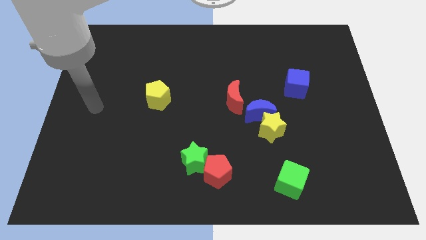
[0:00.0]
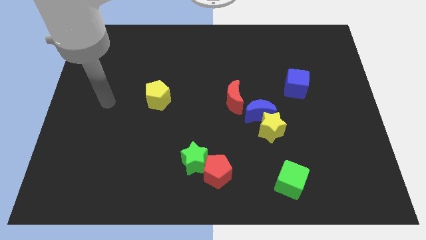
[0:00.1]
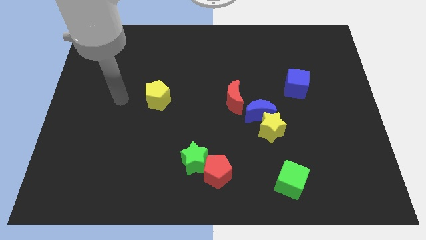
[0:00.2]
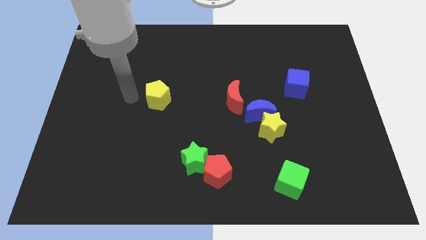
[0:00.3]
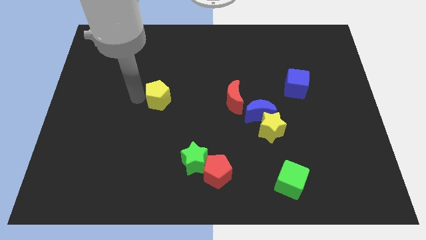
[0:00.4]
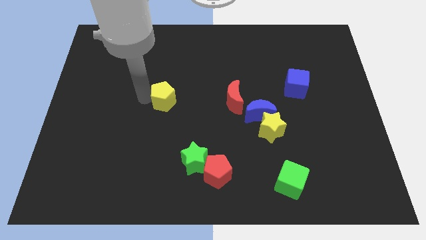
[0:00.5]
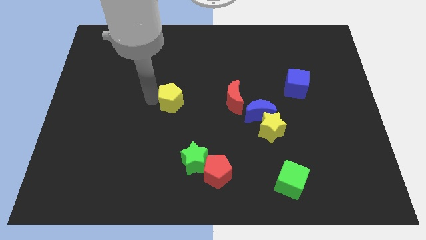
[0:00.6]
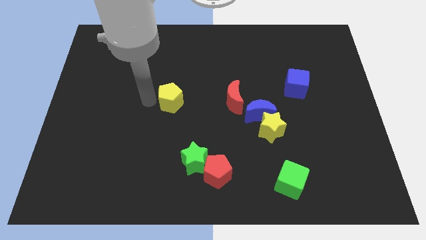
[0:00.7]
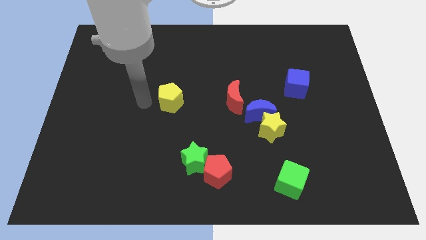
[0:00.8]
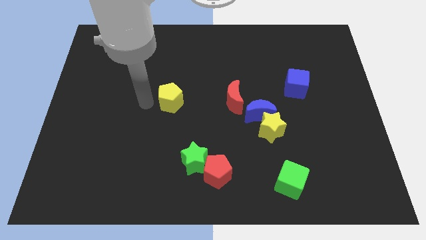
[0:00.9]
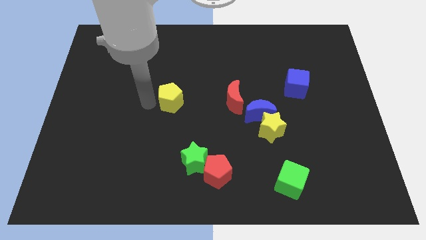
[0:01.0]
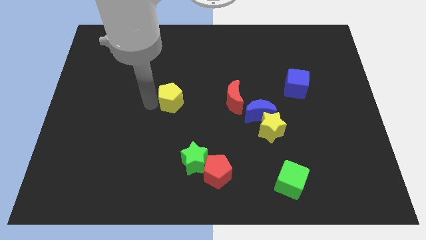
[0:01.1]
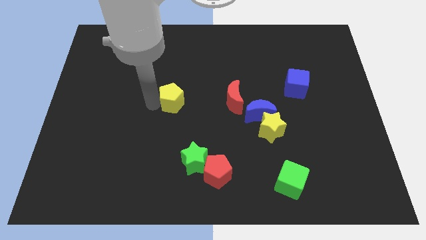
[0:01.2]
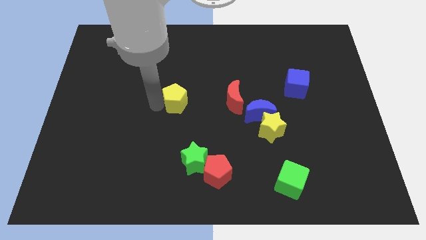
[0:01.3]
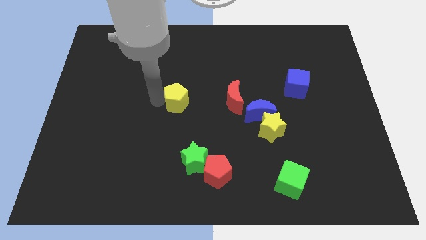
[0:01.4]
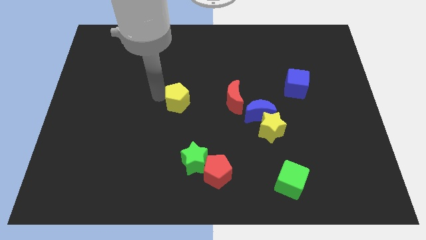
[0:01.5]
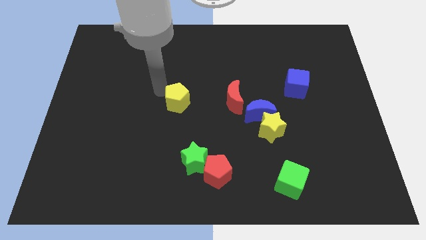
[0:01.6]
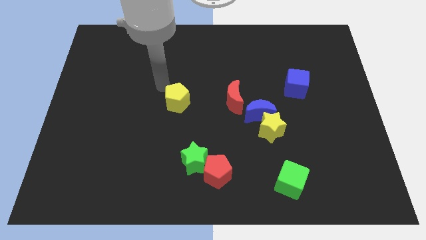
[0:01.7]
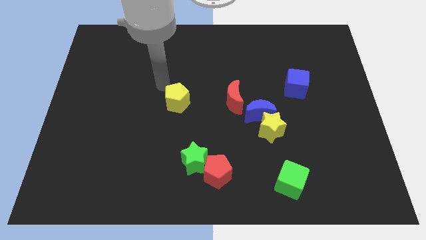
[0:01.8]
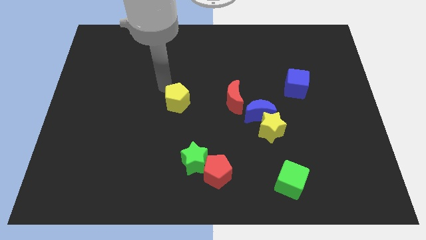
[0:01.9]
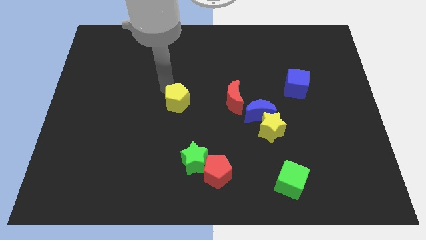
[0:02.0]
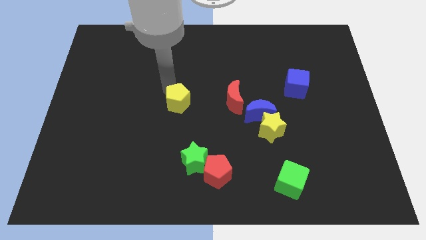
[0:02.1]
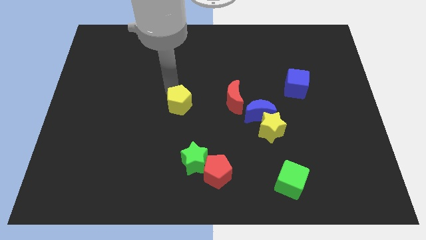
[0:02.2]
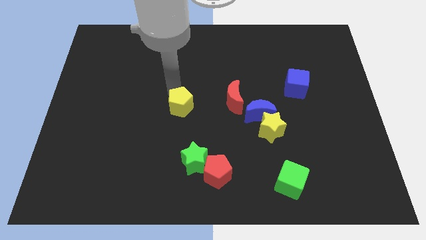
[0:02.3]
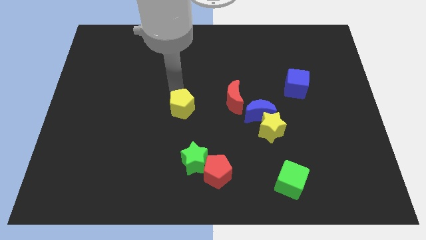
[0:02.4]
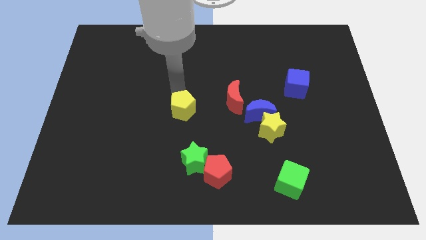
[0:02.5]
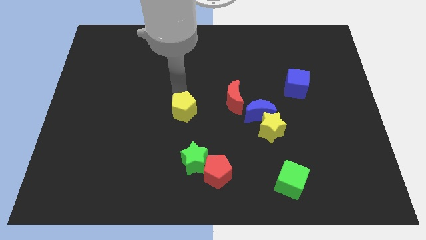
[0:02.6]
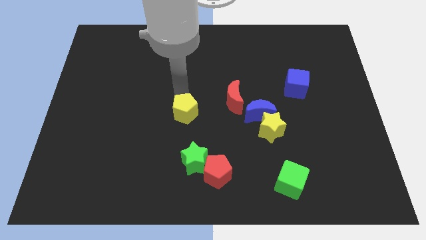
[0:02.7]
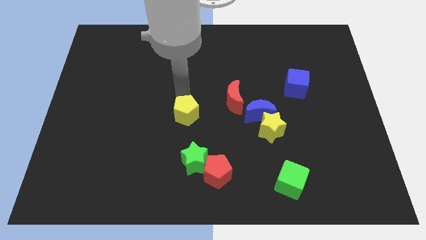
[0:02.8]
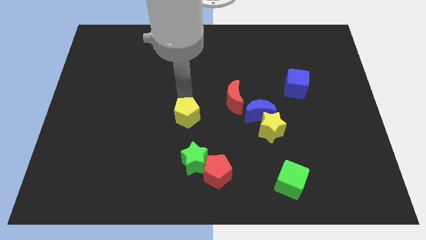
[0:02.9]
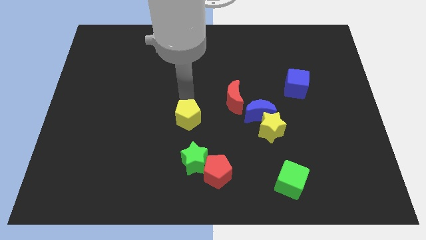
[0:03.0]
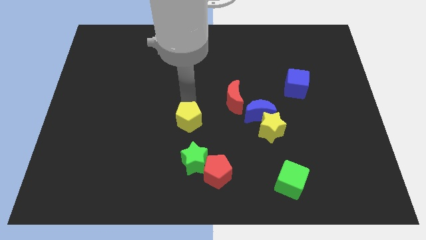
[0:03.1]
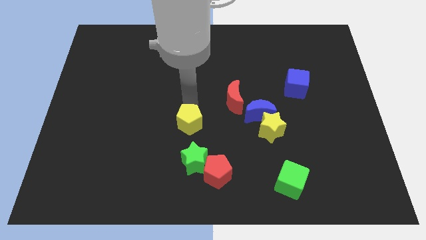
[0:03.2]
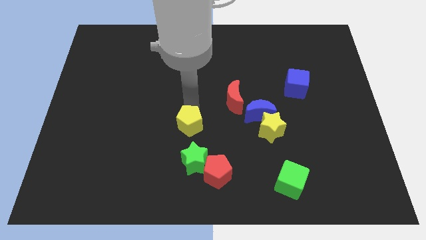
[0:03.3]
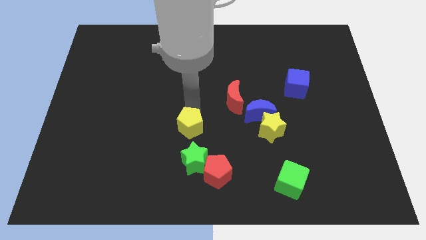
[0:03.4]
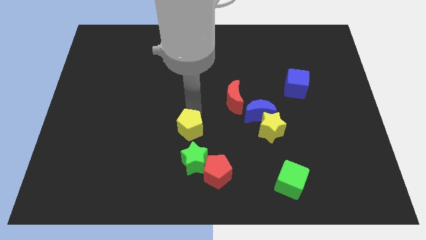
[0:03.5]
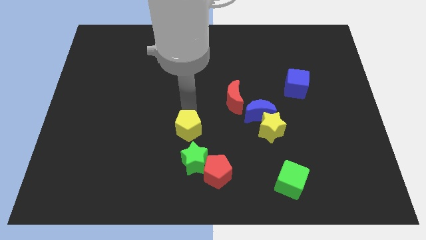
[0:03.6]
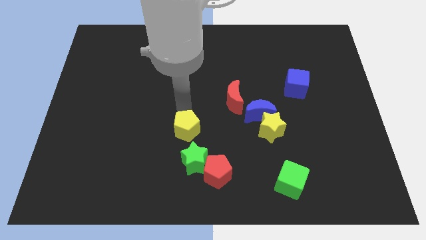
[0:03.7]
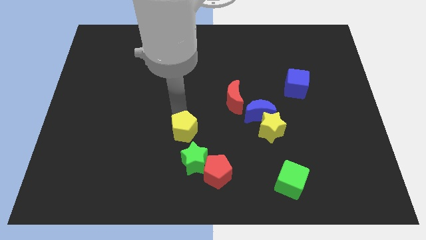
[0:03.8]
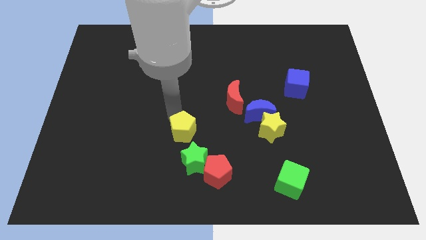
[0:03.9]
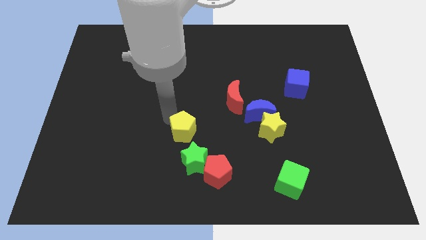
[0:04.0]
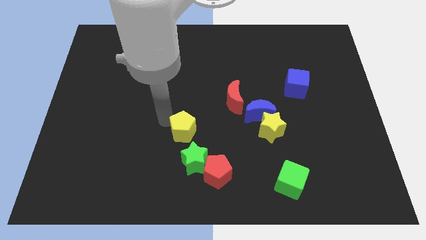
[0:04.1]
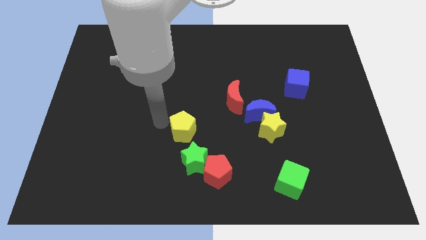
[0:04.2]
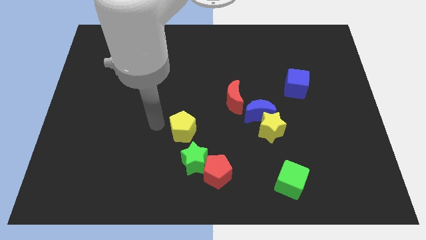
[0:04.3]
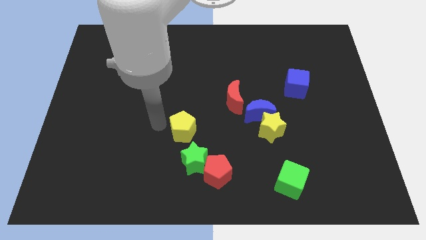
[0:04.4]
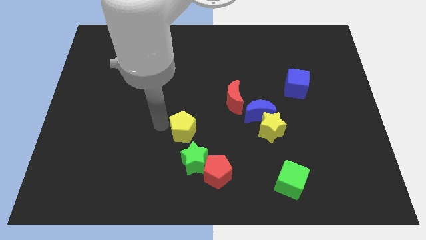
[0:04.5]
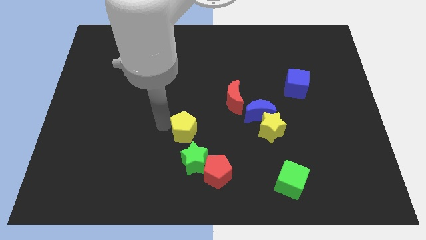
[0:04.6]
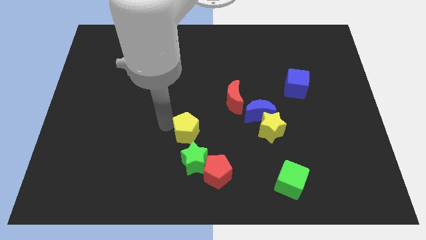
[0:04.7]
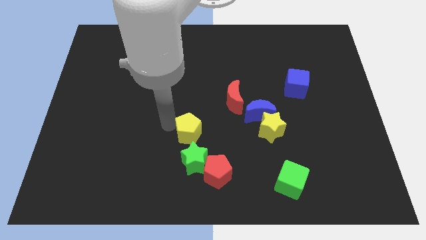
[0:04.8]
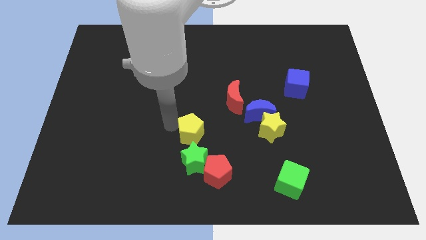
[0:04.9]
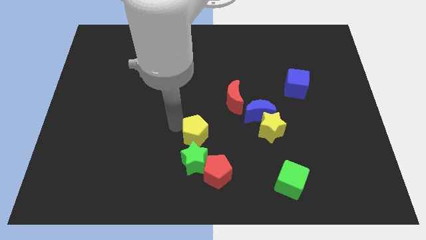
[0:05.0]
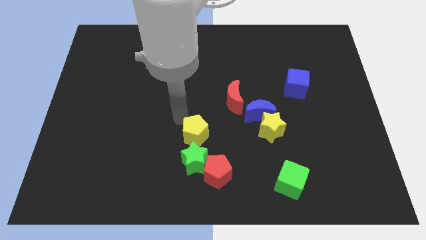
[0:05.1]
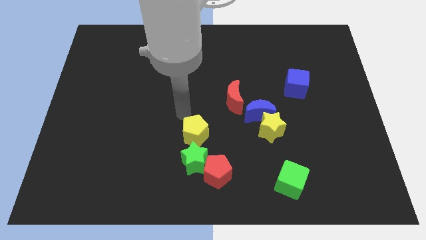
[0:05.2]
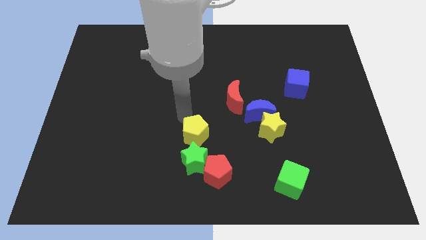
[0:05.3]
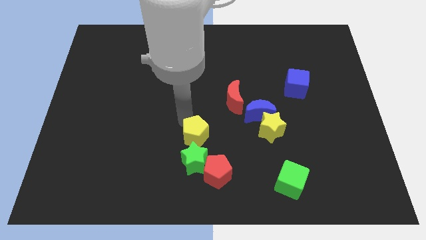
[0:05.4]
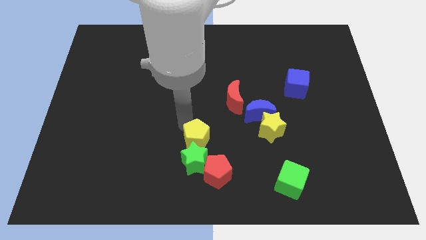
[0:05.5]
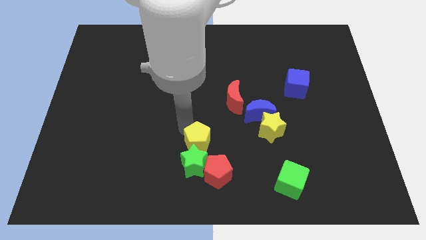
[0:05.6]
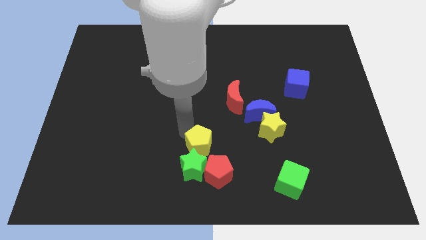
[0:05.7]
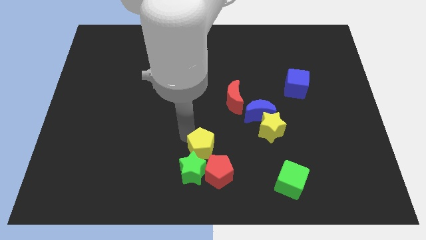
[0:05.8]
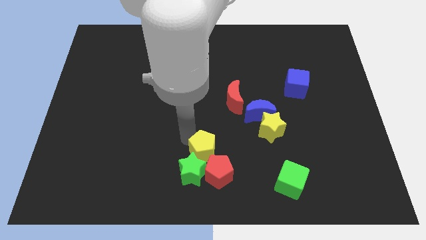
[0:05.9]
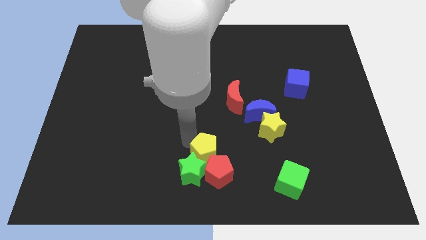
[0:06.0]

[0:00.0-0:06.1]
put the yellow pentagon next to the red pentagon
